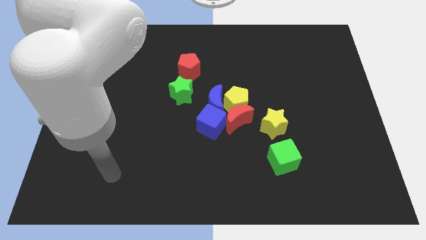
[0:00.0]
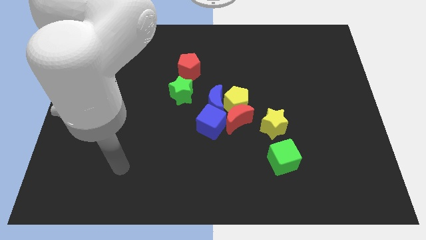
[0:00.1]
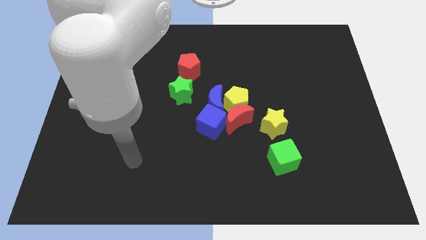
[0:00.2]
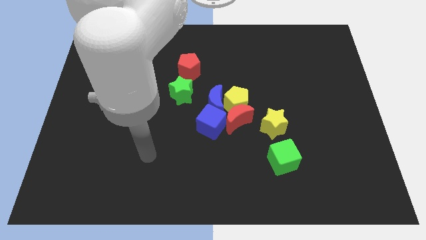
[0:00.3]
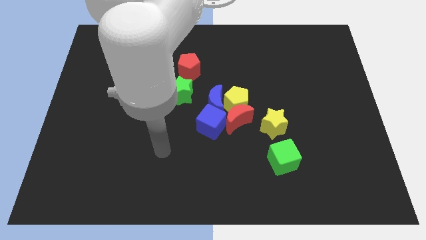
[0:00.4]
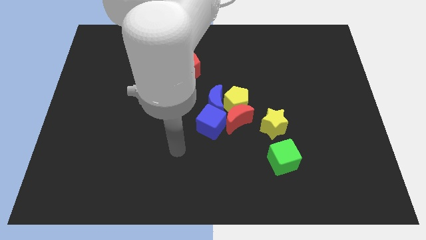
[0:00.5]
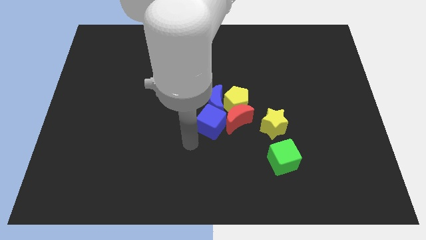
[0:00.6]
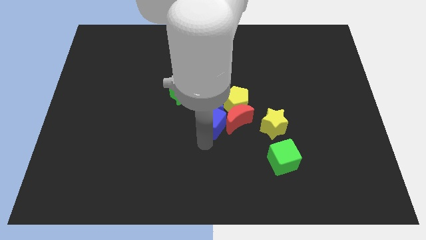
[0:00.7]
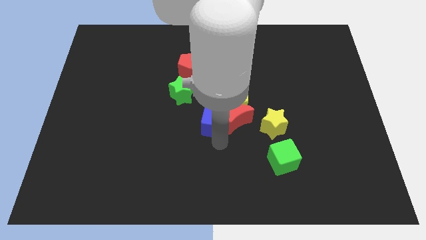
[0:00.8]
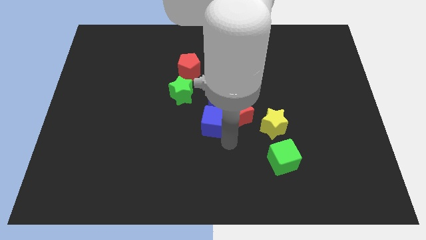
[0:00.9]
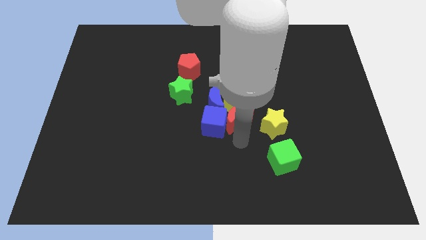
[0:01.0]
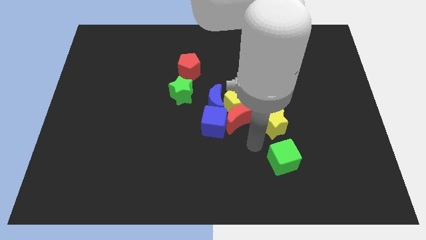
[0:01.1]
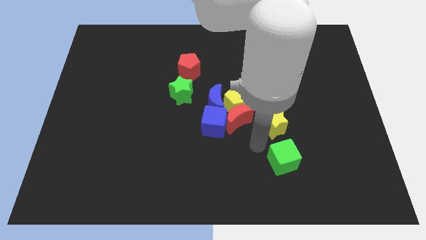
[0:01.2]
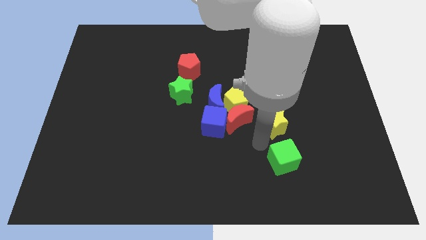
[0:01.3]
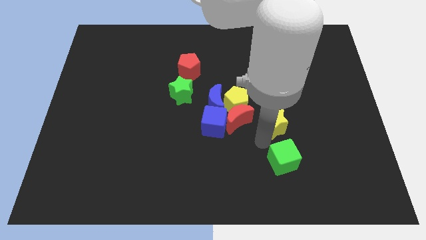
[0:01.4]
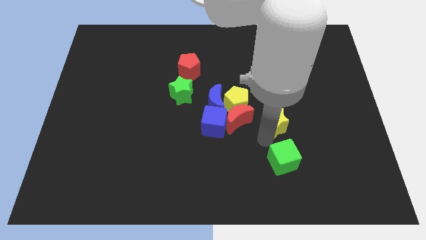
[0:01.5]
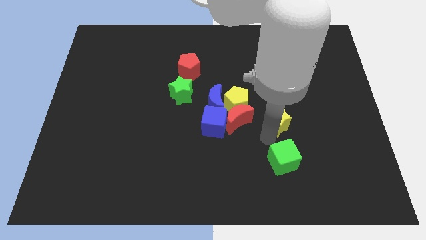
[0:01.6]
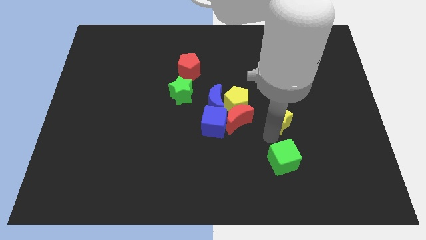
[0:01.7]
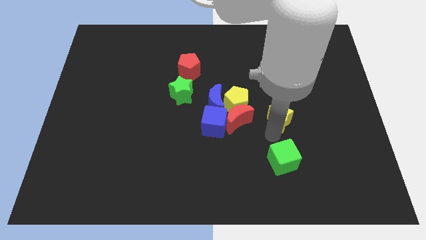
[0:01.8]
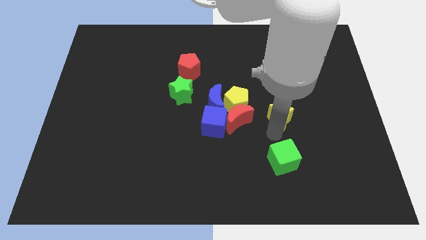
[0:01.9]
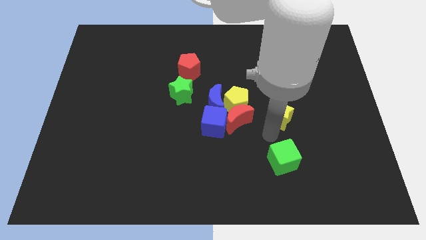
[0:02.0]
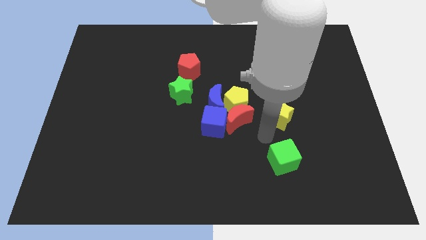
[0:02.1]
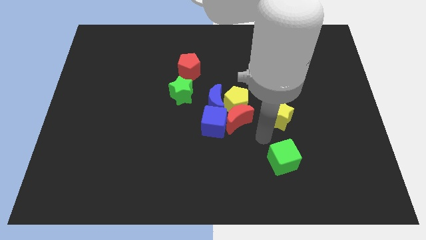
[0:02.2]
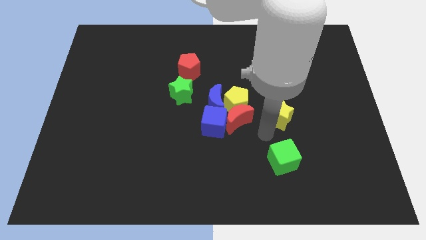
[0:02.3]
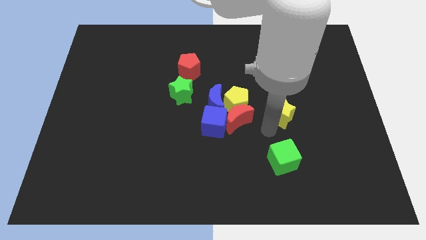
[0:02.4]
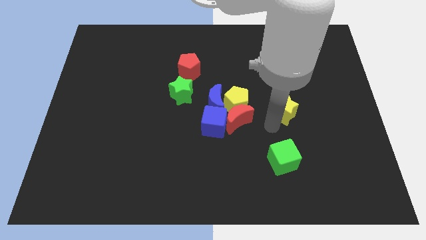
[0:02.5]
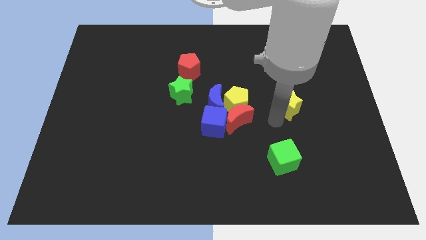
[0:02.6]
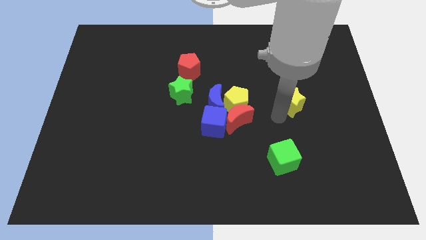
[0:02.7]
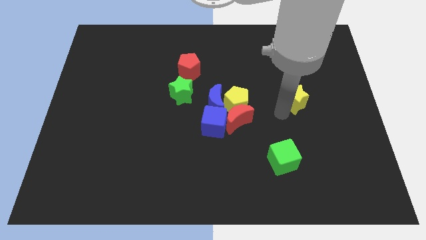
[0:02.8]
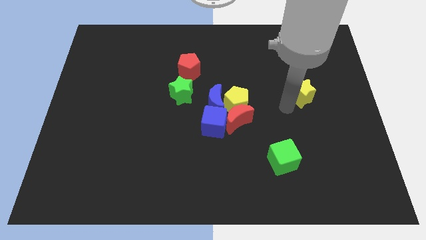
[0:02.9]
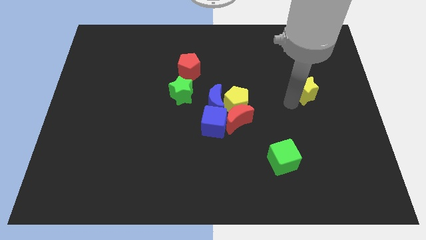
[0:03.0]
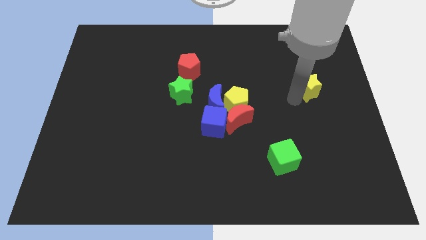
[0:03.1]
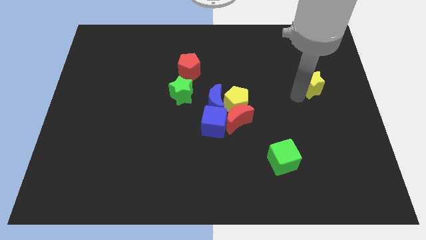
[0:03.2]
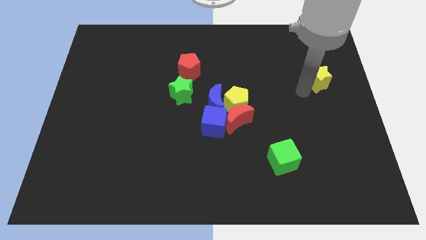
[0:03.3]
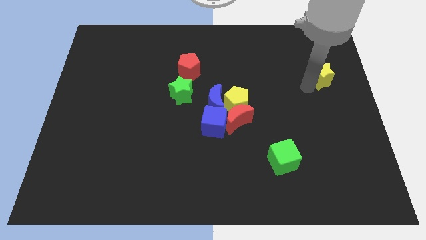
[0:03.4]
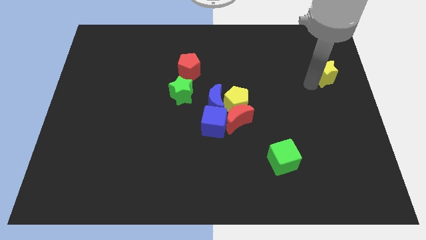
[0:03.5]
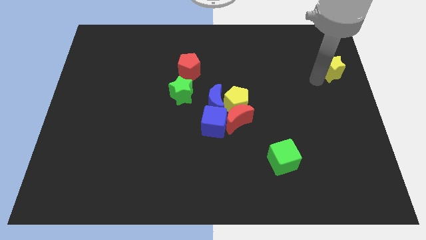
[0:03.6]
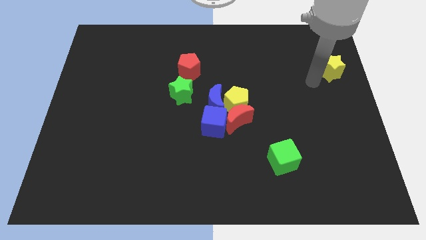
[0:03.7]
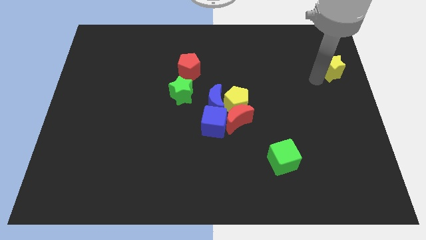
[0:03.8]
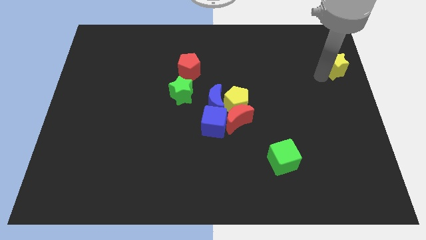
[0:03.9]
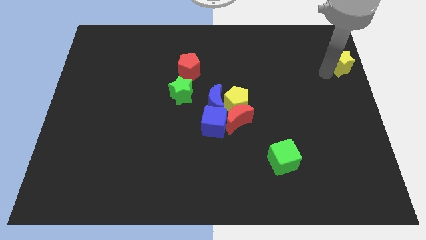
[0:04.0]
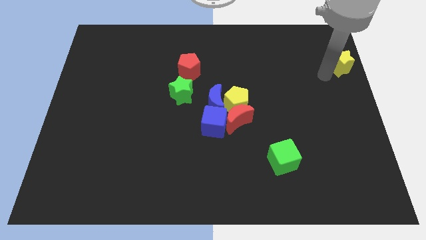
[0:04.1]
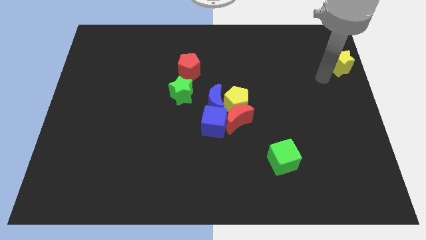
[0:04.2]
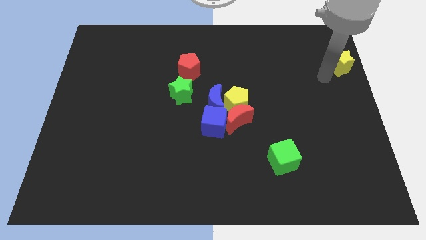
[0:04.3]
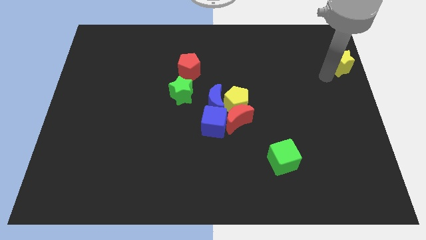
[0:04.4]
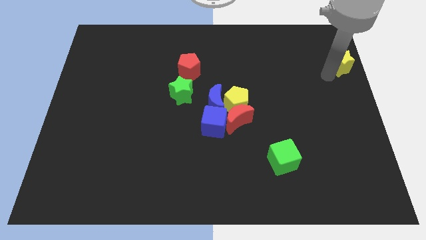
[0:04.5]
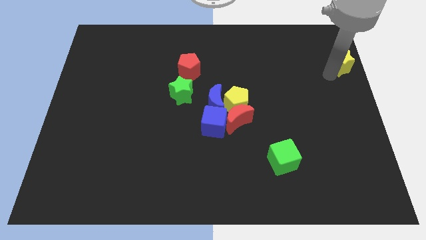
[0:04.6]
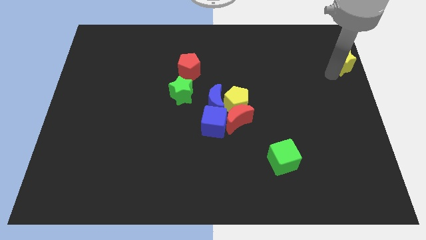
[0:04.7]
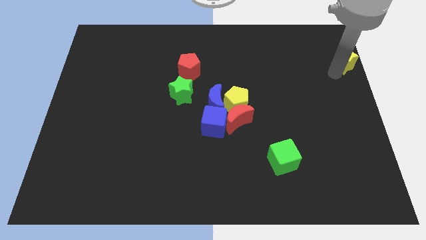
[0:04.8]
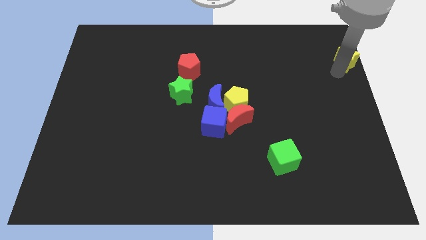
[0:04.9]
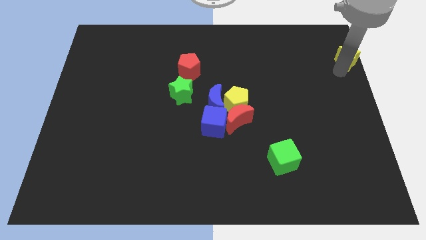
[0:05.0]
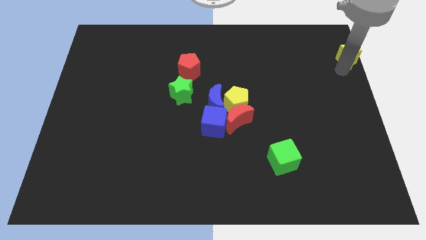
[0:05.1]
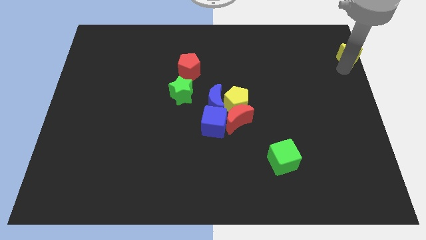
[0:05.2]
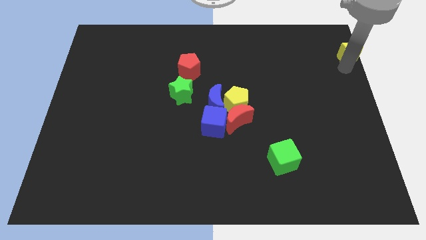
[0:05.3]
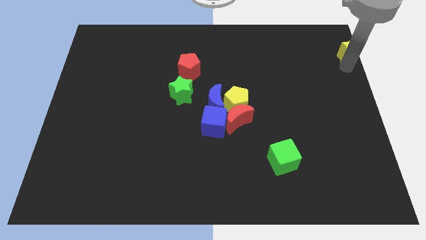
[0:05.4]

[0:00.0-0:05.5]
push the yellow star to the top right corner

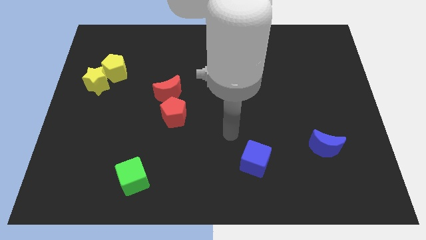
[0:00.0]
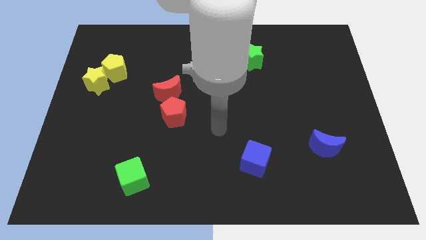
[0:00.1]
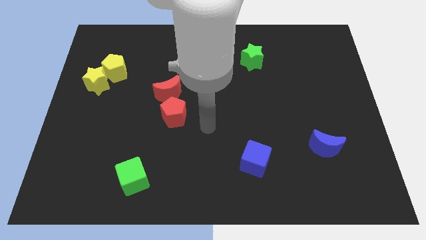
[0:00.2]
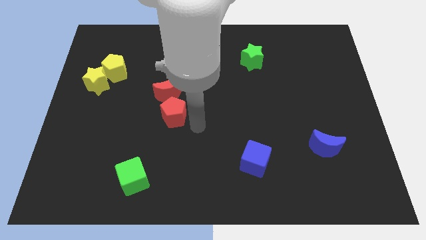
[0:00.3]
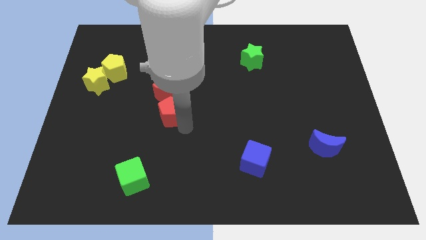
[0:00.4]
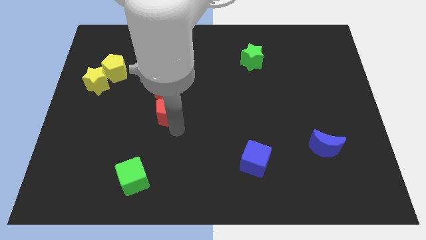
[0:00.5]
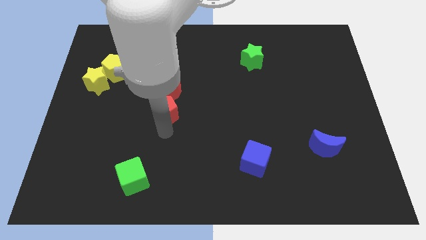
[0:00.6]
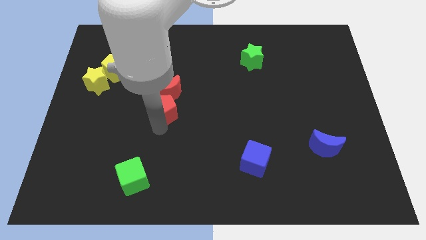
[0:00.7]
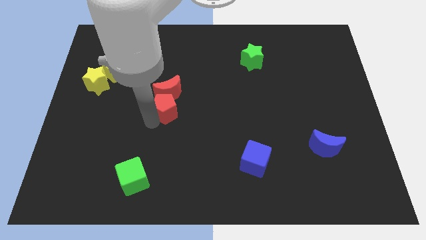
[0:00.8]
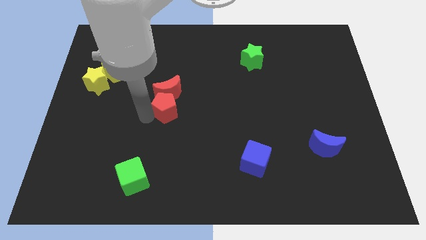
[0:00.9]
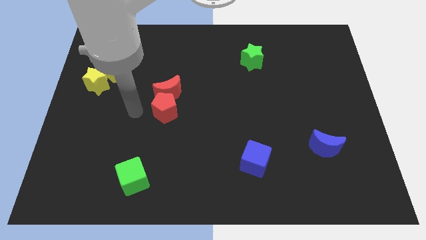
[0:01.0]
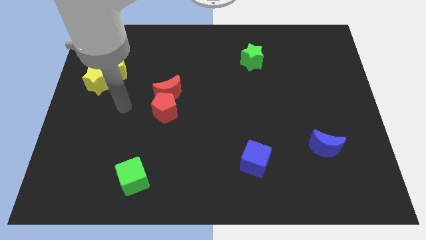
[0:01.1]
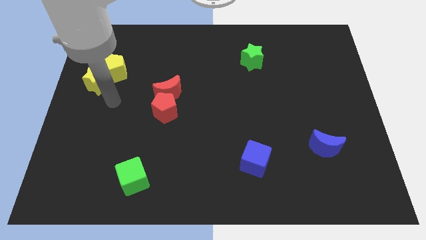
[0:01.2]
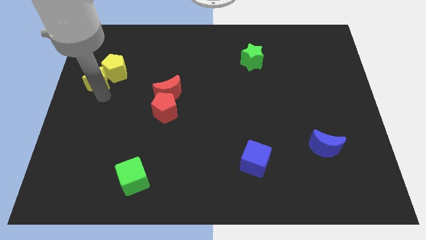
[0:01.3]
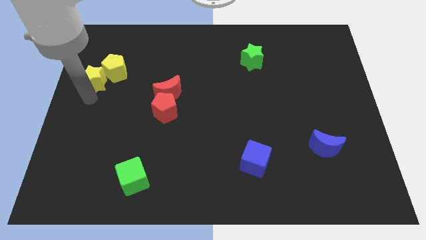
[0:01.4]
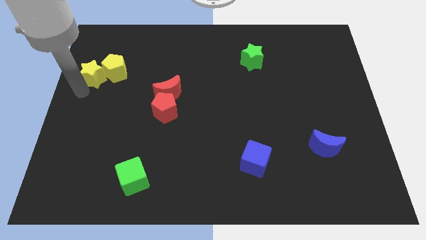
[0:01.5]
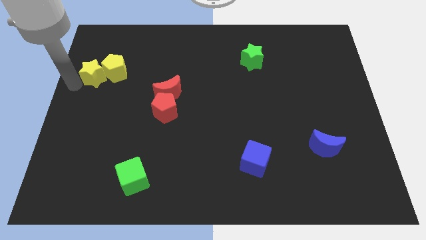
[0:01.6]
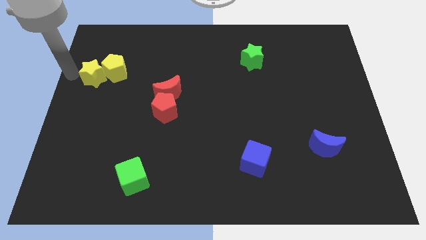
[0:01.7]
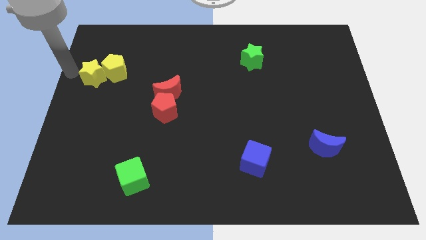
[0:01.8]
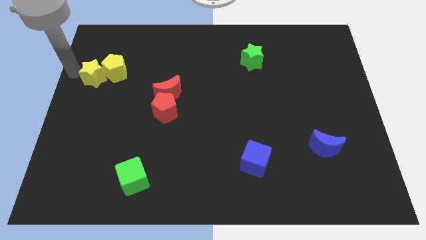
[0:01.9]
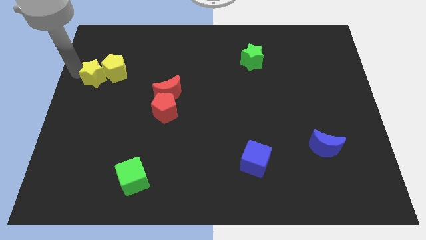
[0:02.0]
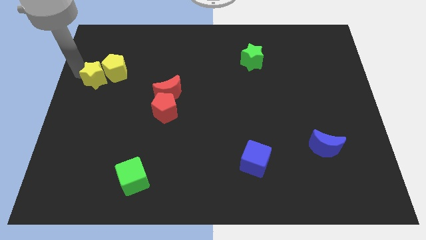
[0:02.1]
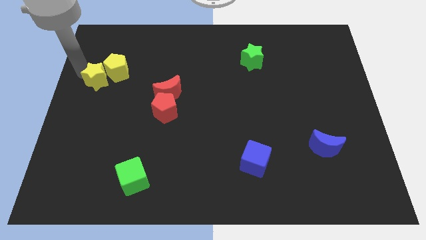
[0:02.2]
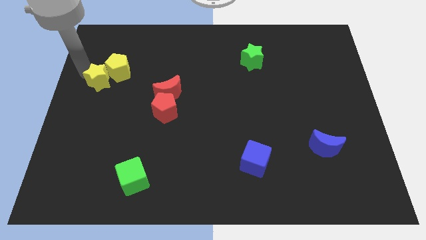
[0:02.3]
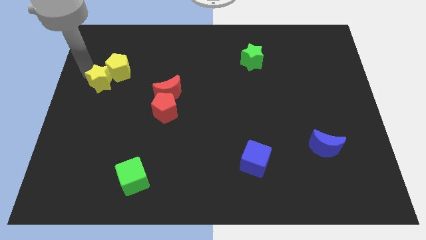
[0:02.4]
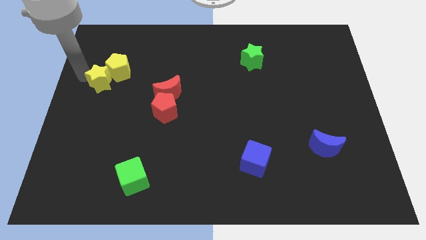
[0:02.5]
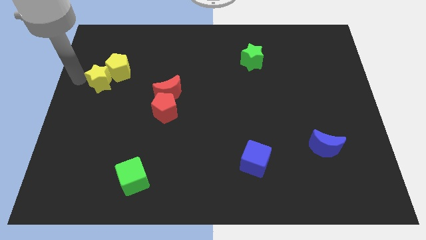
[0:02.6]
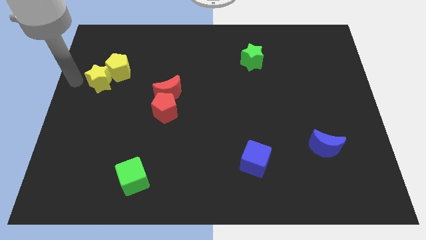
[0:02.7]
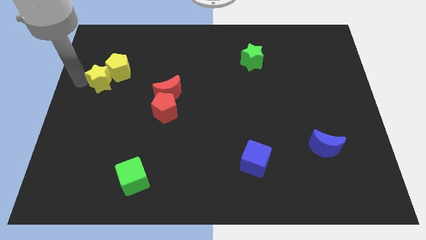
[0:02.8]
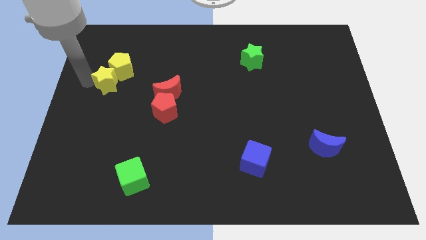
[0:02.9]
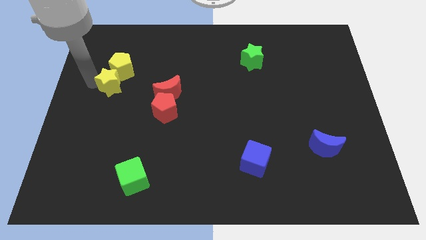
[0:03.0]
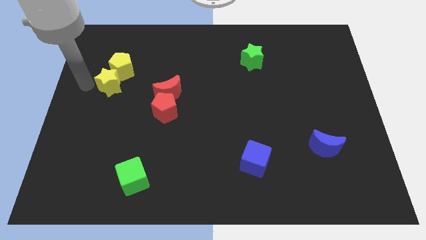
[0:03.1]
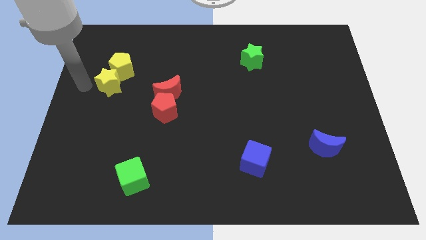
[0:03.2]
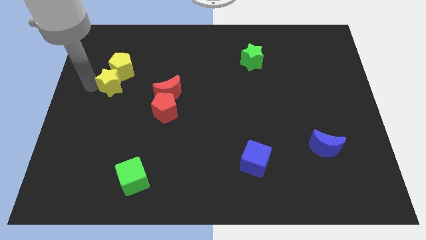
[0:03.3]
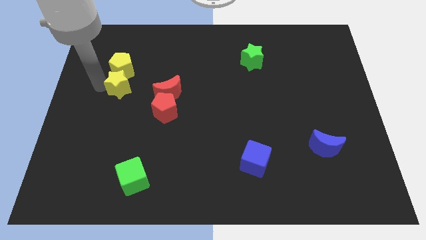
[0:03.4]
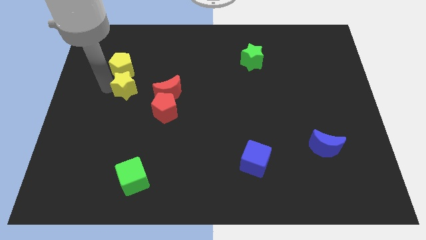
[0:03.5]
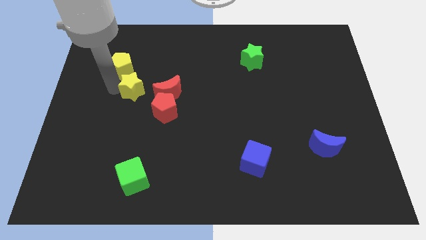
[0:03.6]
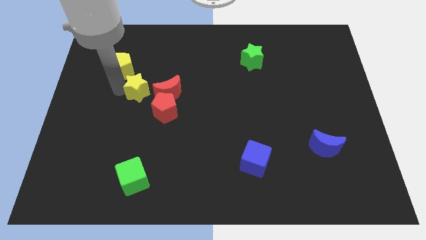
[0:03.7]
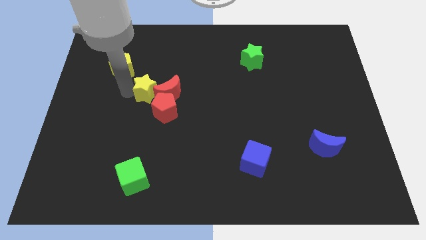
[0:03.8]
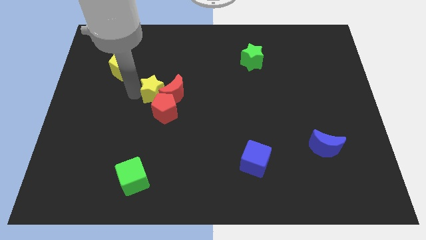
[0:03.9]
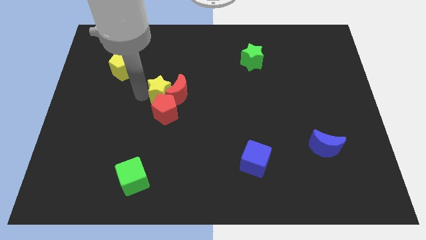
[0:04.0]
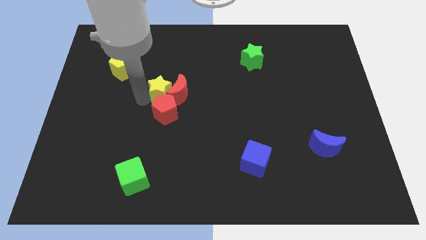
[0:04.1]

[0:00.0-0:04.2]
move the yellow star to the middle of the board
